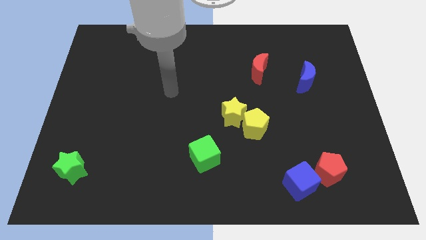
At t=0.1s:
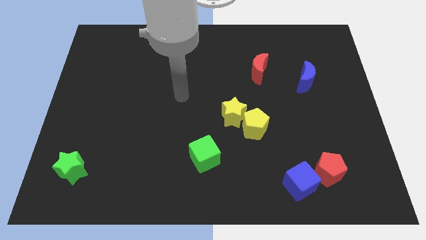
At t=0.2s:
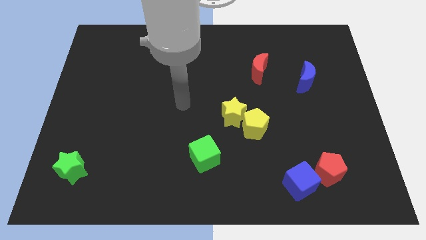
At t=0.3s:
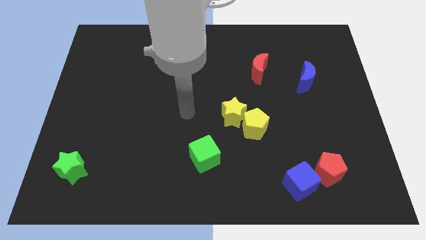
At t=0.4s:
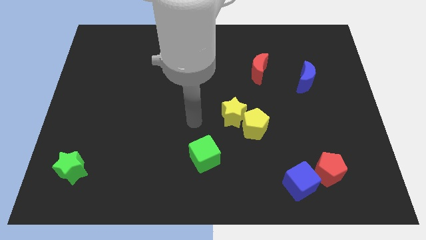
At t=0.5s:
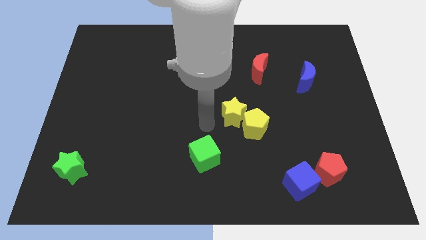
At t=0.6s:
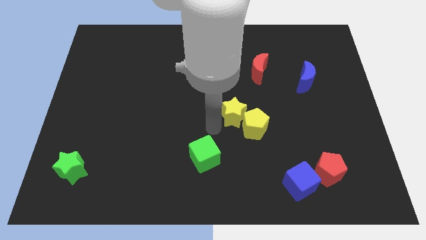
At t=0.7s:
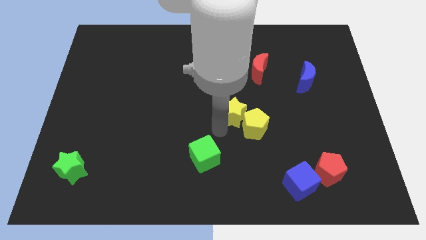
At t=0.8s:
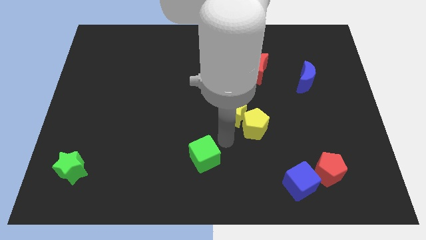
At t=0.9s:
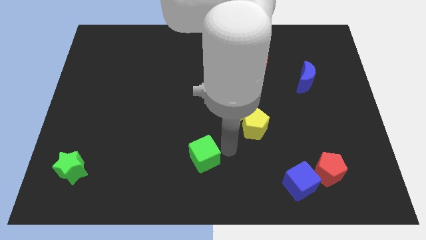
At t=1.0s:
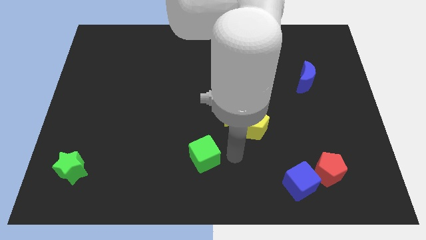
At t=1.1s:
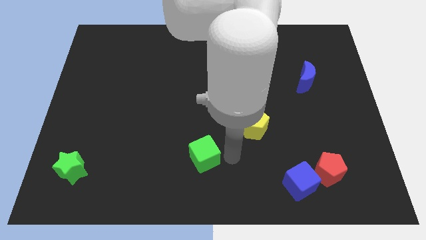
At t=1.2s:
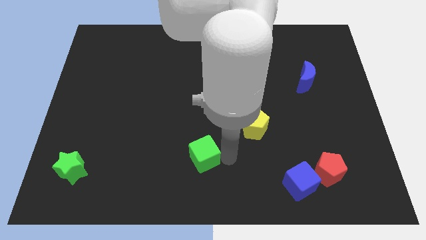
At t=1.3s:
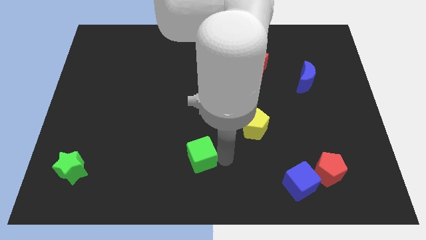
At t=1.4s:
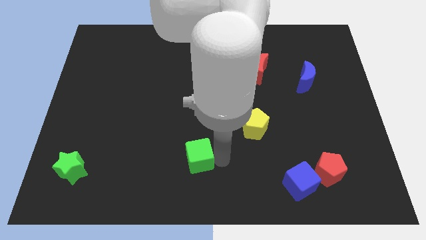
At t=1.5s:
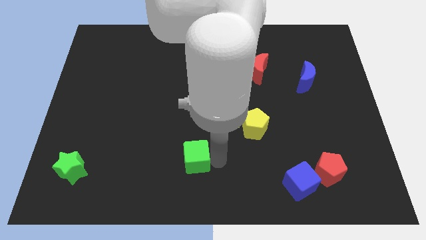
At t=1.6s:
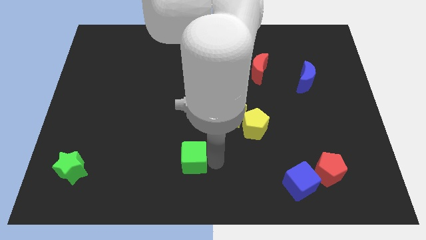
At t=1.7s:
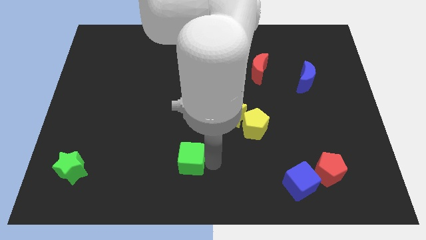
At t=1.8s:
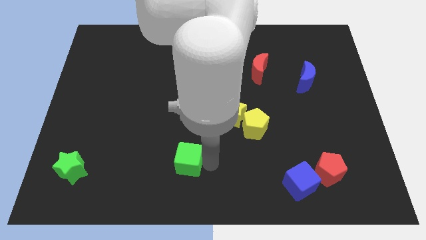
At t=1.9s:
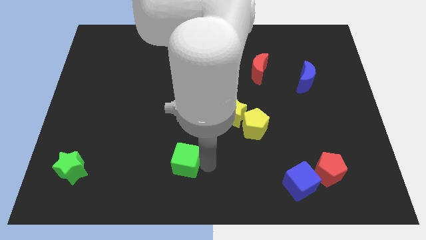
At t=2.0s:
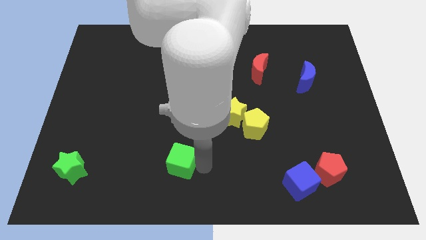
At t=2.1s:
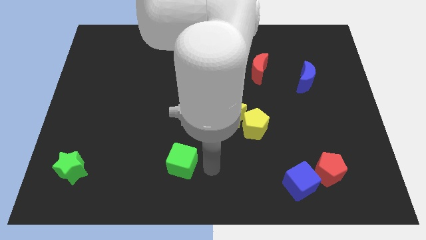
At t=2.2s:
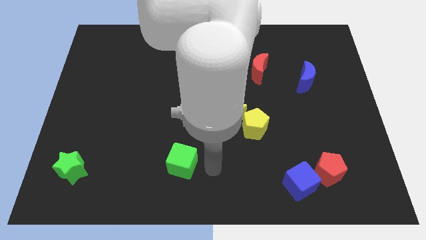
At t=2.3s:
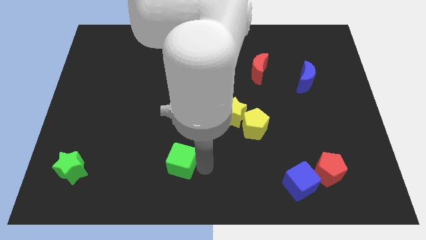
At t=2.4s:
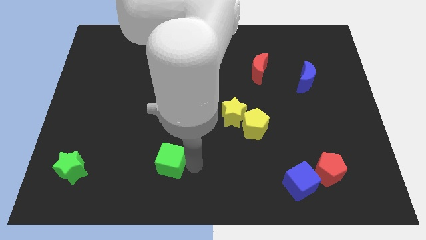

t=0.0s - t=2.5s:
move the green cube to the left a little

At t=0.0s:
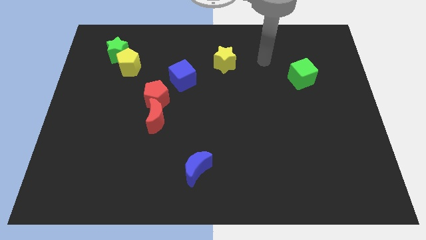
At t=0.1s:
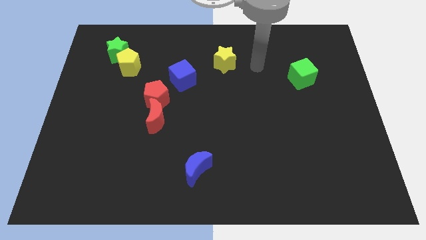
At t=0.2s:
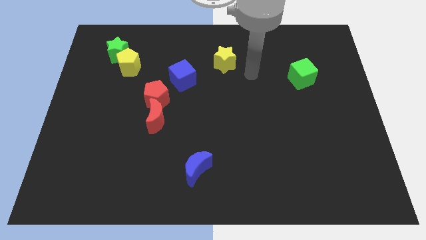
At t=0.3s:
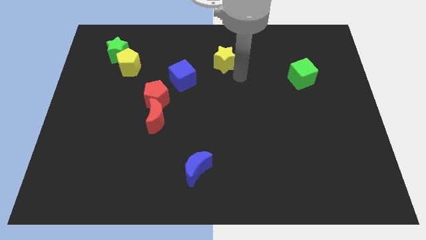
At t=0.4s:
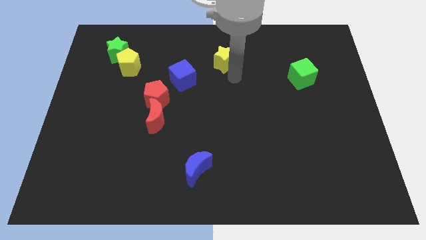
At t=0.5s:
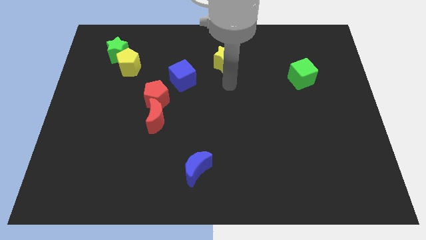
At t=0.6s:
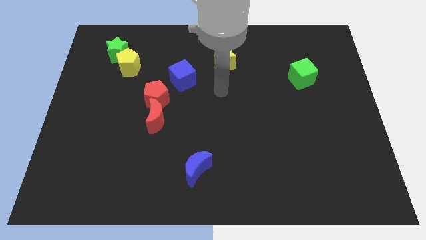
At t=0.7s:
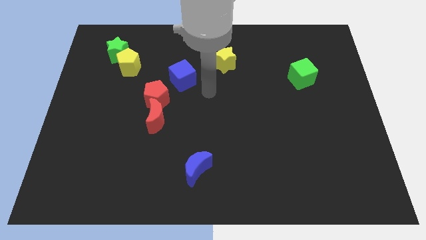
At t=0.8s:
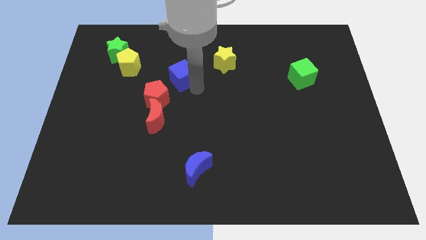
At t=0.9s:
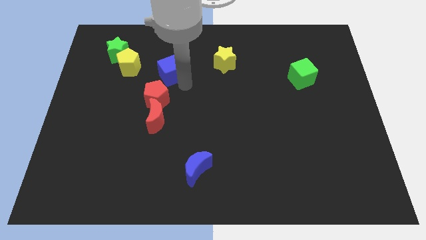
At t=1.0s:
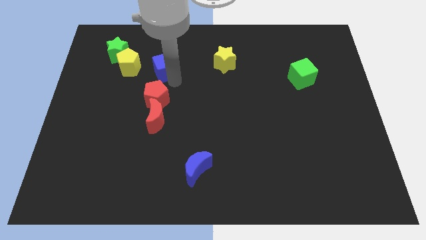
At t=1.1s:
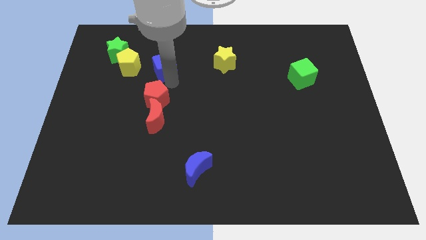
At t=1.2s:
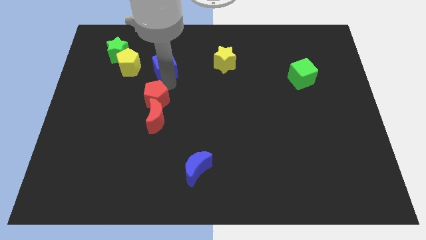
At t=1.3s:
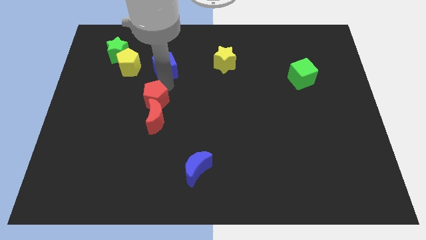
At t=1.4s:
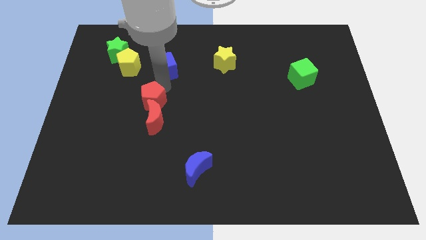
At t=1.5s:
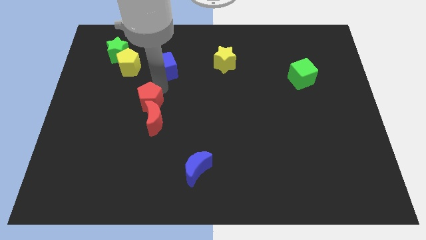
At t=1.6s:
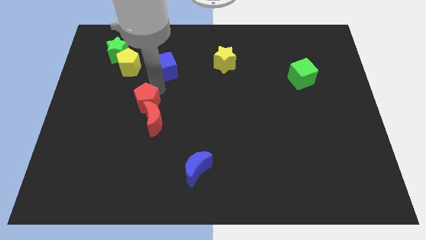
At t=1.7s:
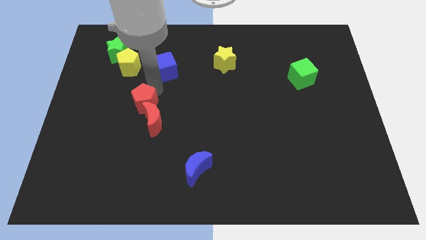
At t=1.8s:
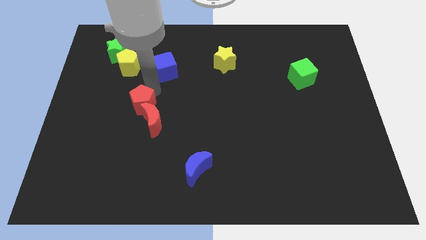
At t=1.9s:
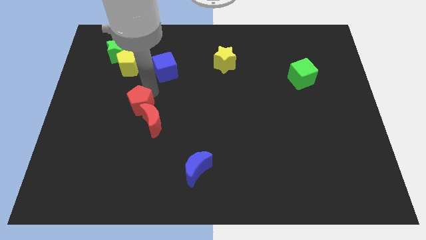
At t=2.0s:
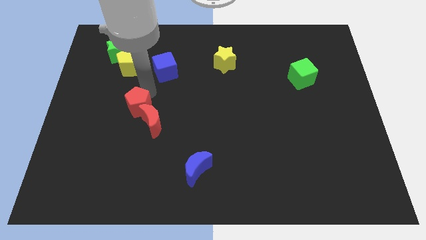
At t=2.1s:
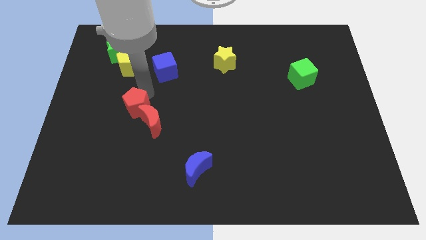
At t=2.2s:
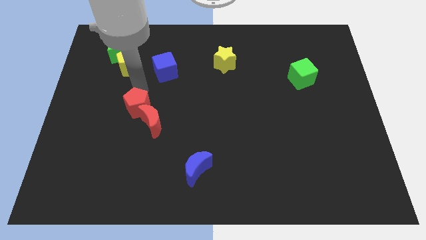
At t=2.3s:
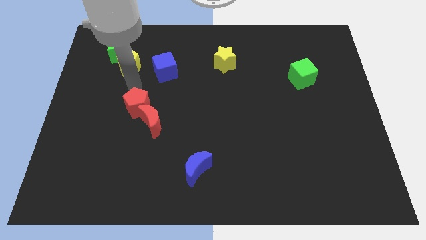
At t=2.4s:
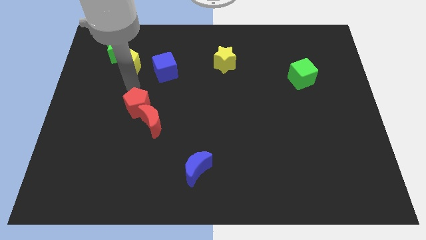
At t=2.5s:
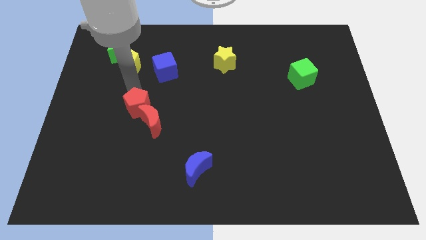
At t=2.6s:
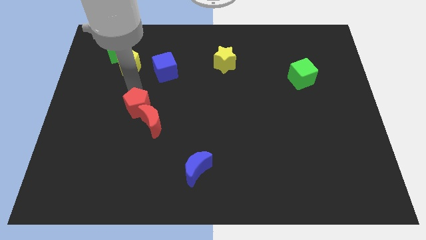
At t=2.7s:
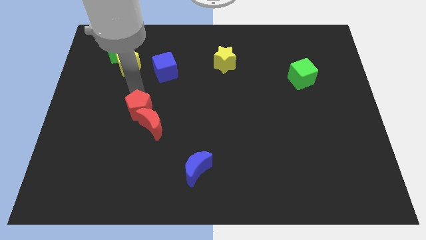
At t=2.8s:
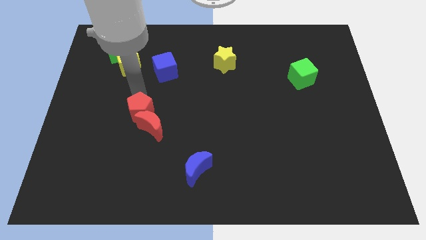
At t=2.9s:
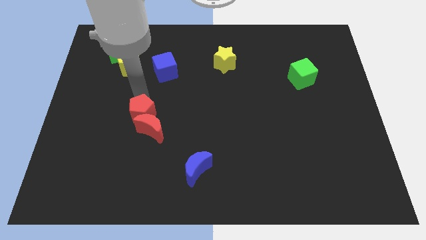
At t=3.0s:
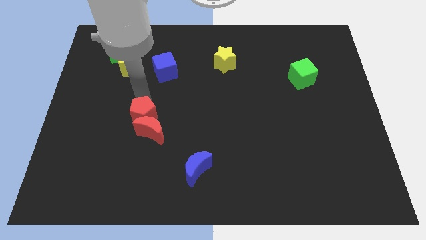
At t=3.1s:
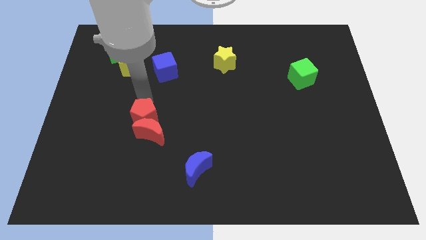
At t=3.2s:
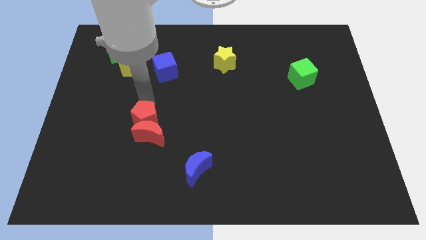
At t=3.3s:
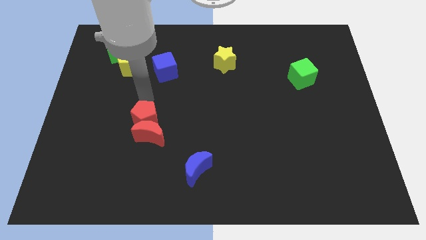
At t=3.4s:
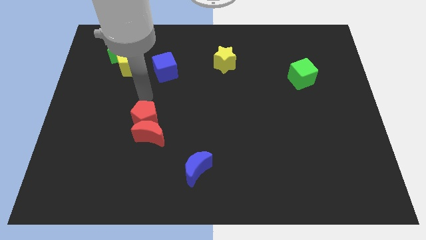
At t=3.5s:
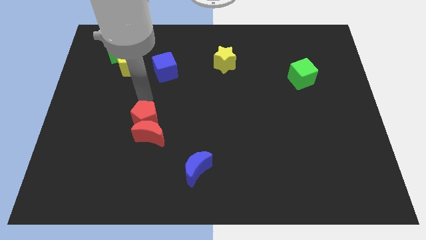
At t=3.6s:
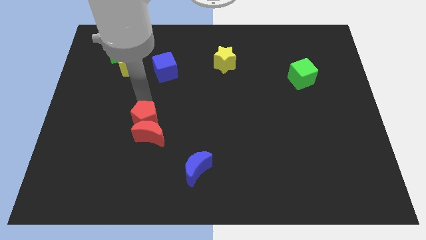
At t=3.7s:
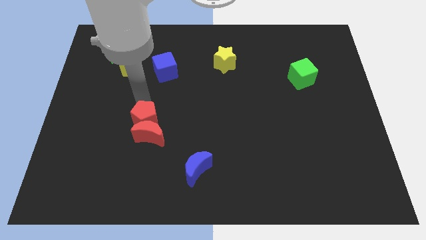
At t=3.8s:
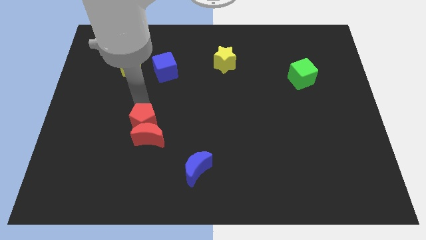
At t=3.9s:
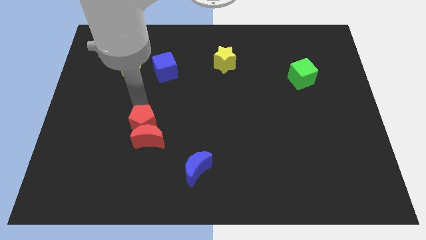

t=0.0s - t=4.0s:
slightly push the red pentagon downwards

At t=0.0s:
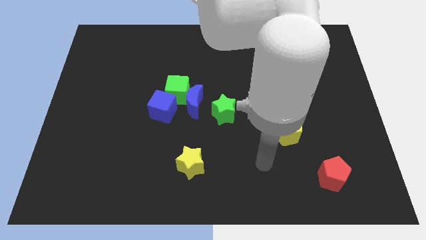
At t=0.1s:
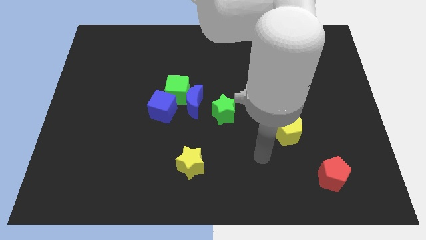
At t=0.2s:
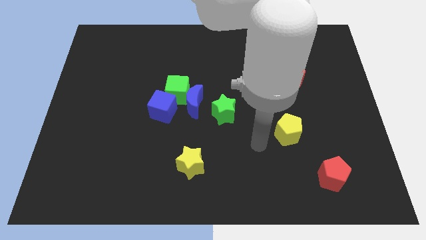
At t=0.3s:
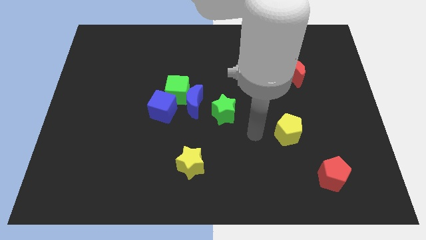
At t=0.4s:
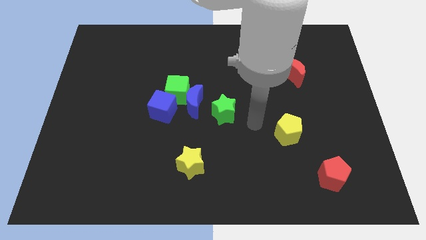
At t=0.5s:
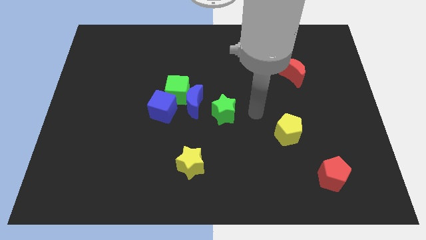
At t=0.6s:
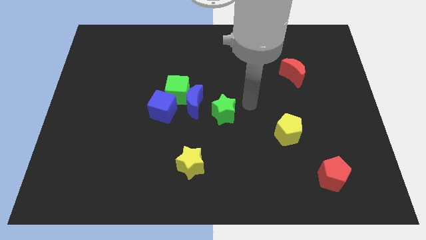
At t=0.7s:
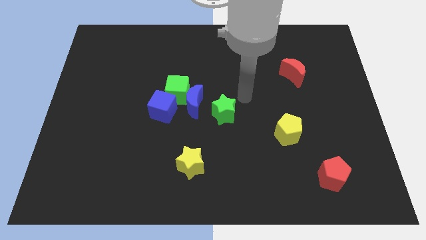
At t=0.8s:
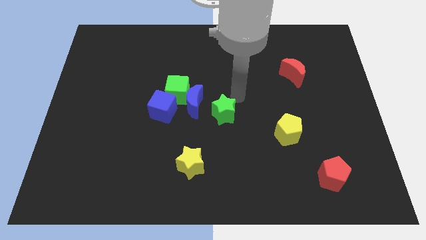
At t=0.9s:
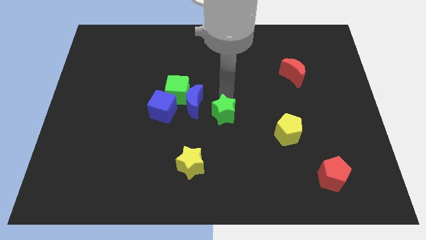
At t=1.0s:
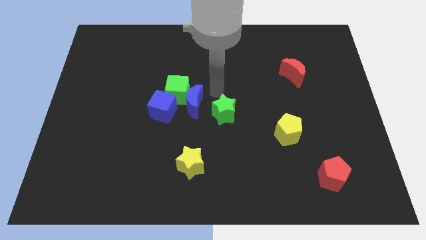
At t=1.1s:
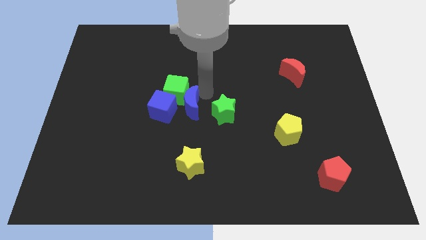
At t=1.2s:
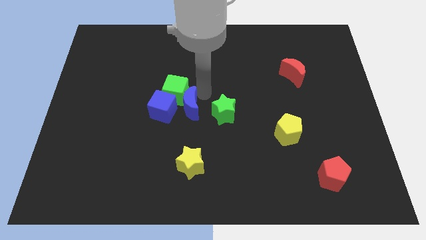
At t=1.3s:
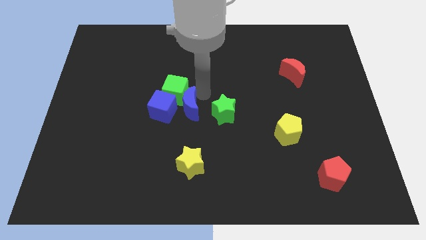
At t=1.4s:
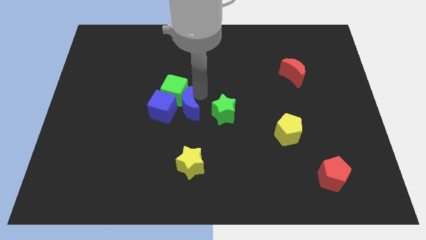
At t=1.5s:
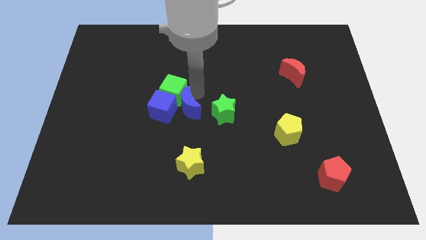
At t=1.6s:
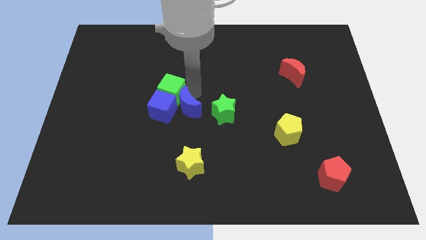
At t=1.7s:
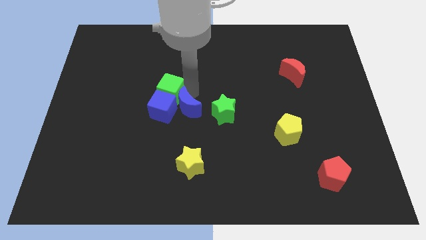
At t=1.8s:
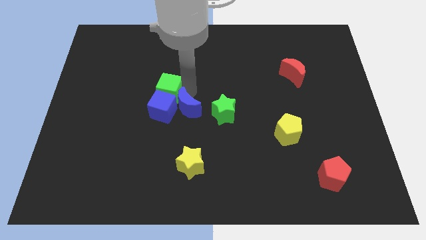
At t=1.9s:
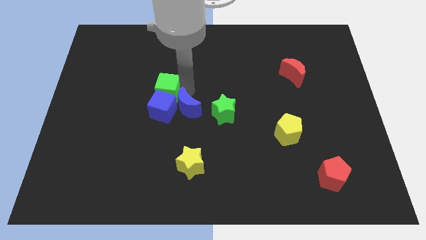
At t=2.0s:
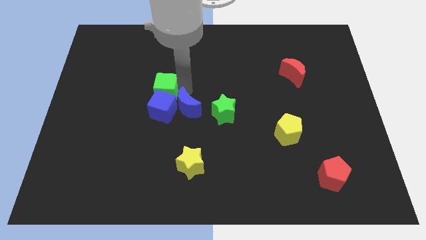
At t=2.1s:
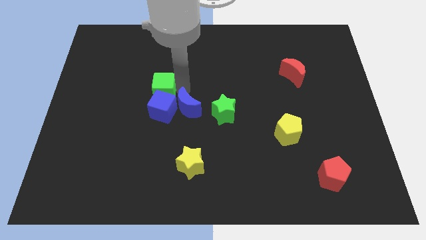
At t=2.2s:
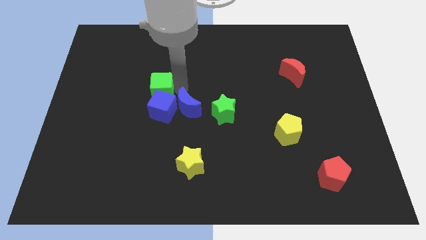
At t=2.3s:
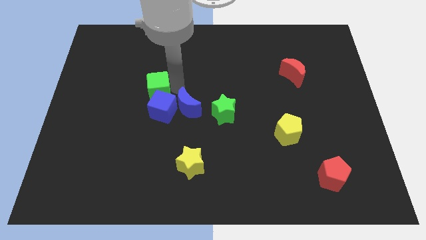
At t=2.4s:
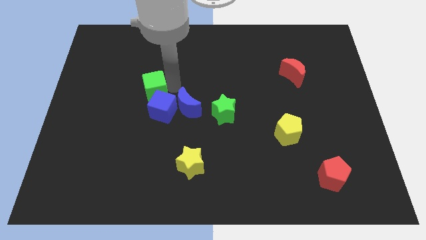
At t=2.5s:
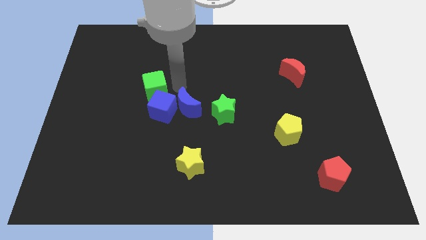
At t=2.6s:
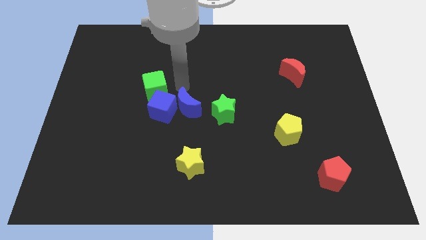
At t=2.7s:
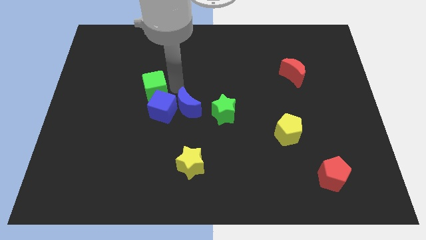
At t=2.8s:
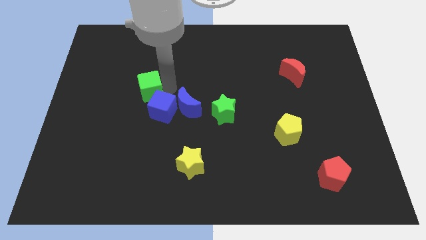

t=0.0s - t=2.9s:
push the green cube slightly left
